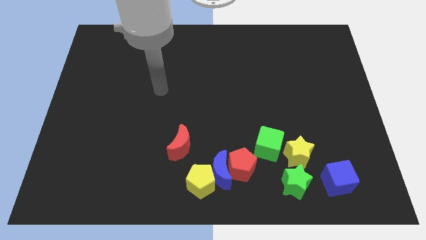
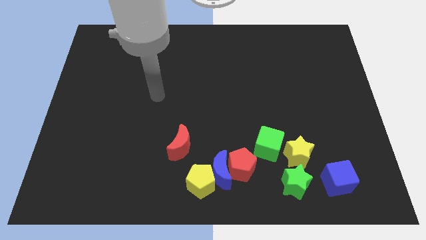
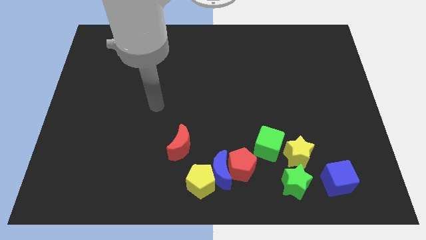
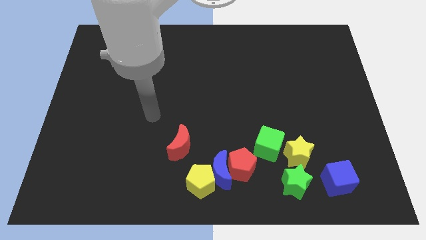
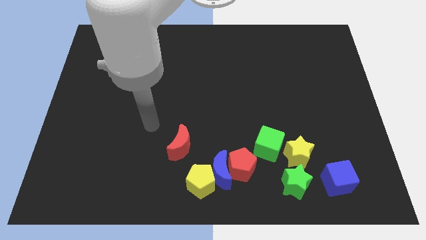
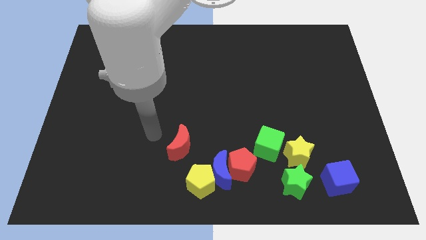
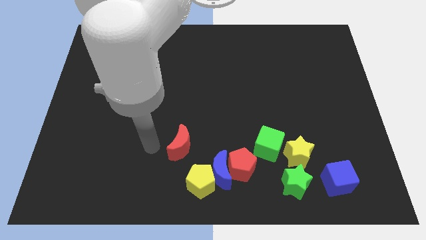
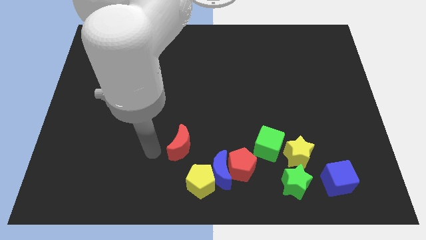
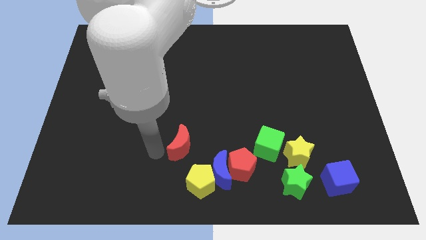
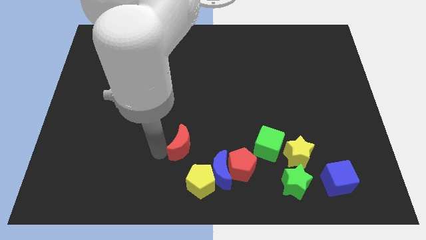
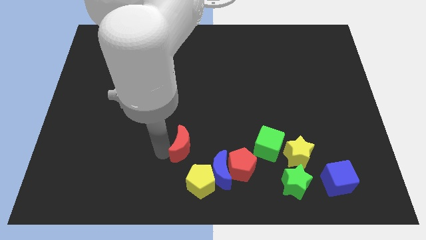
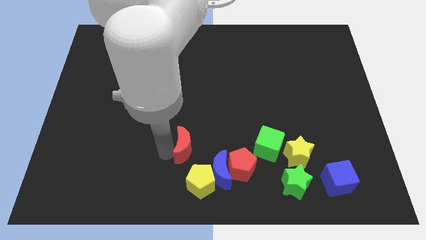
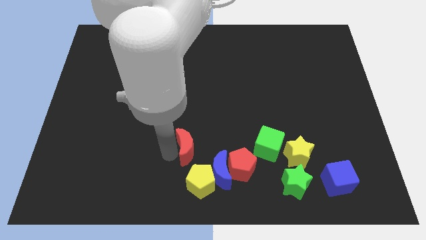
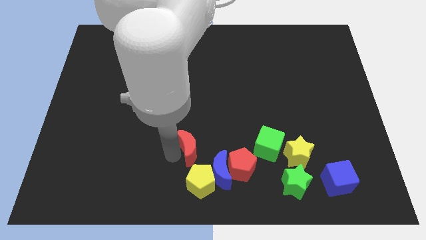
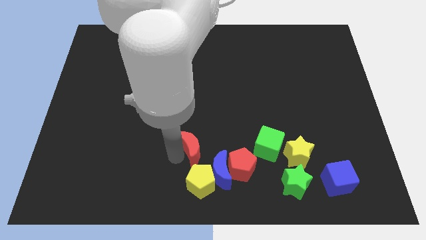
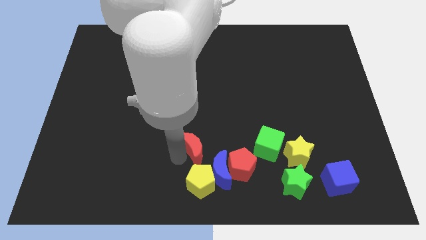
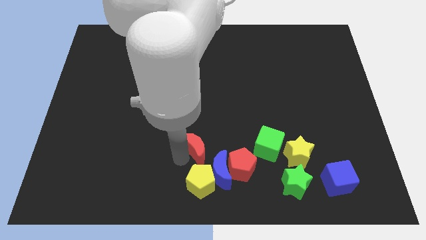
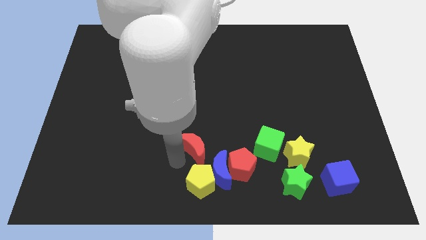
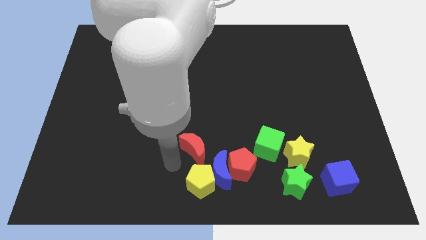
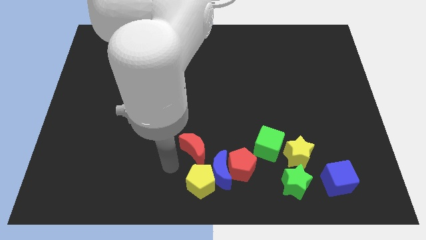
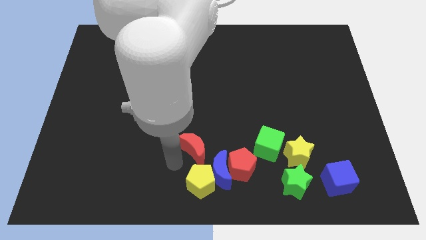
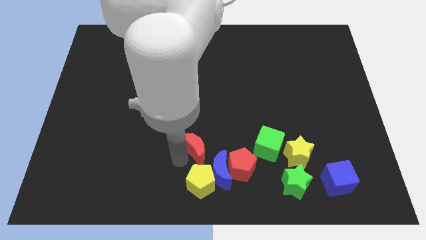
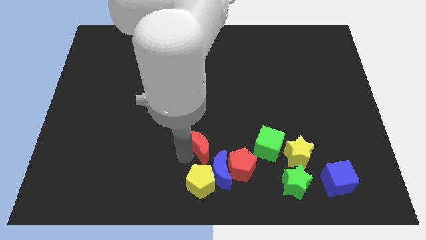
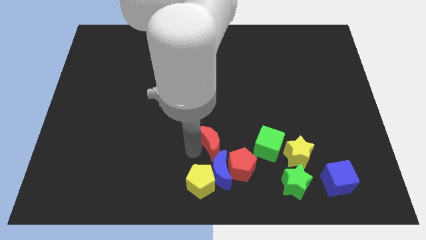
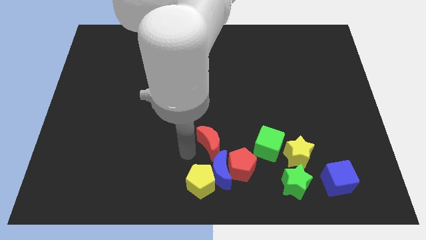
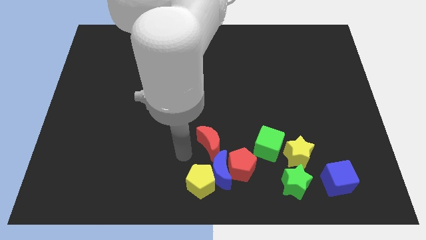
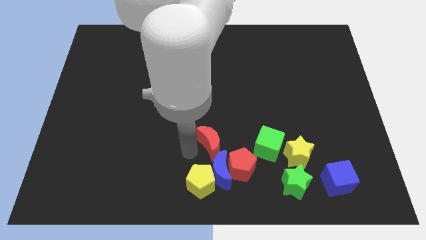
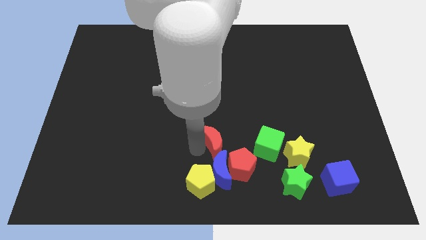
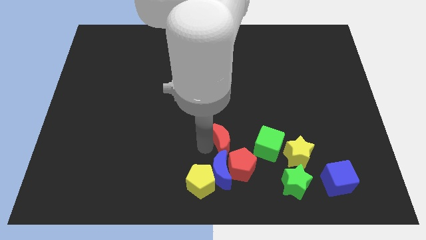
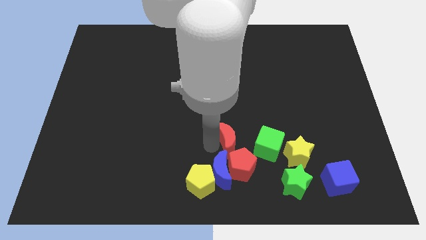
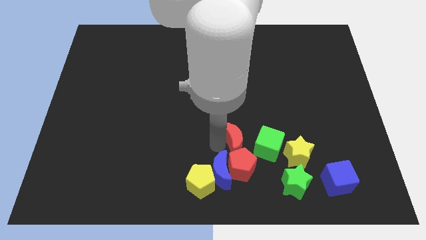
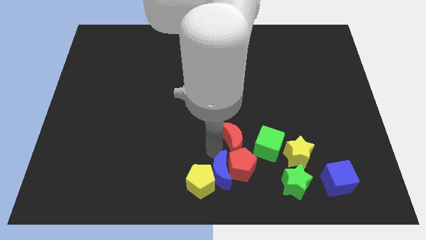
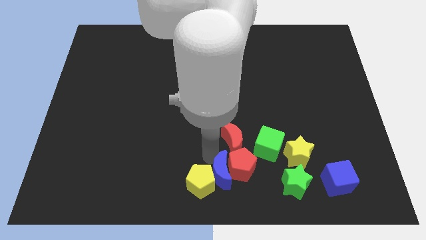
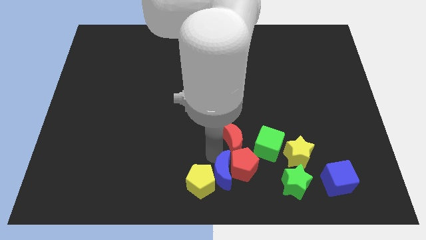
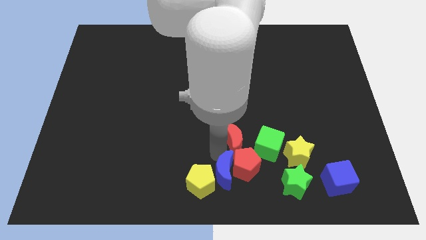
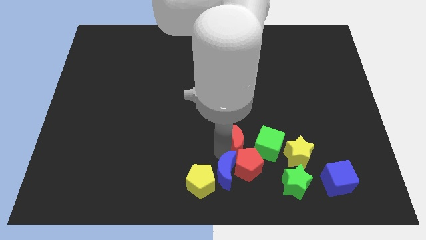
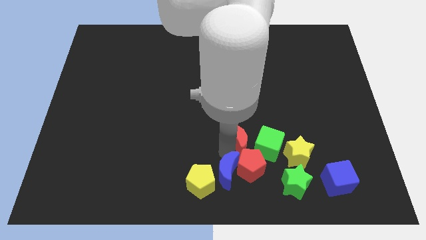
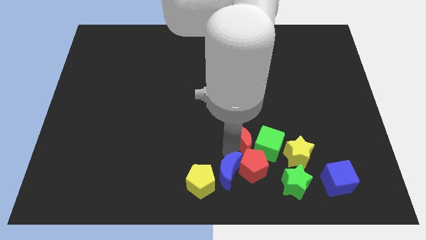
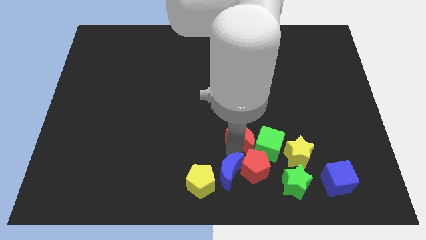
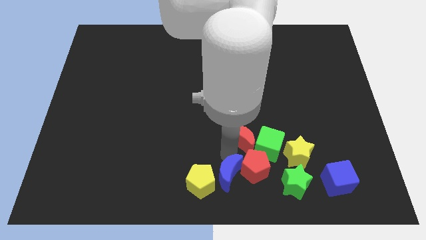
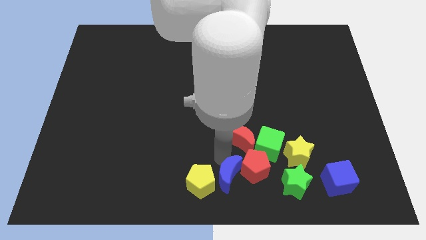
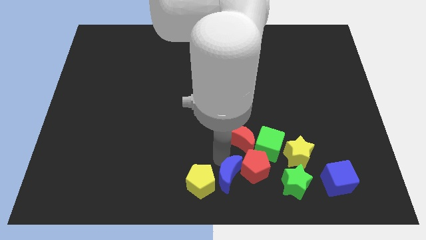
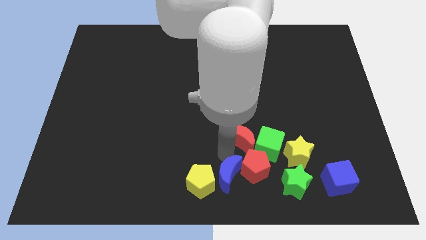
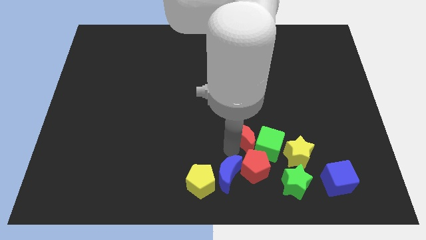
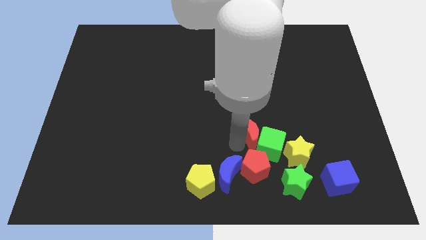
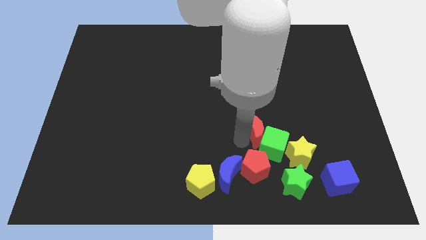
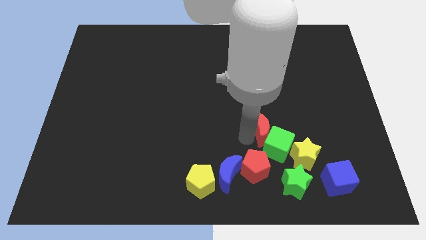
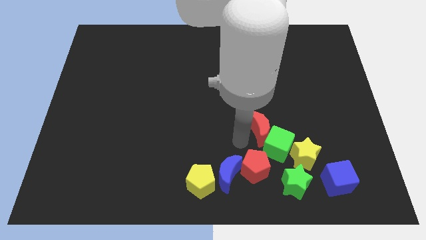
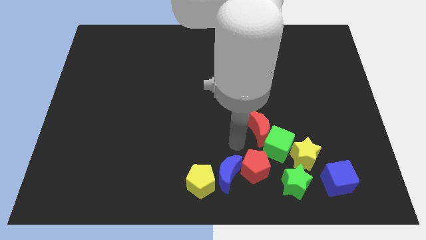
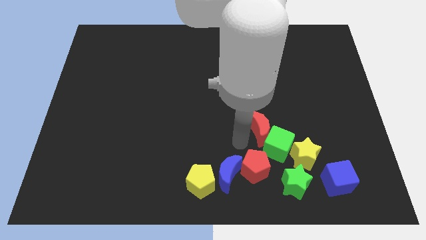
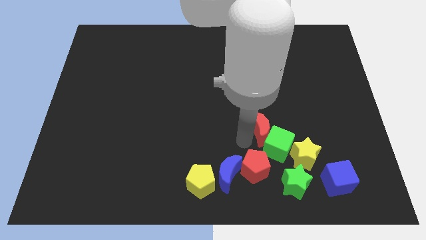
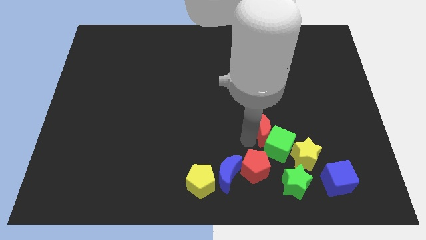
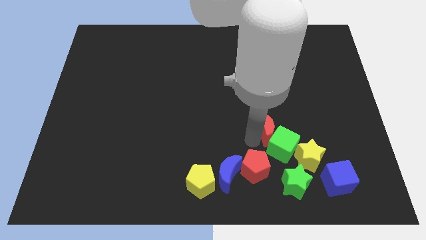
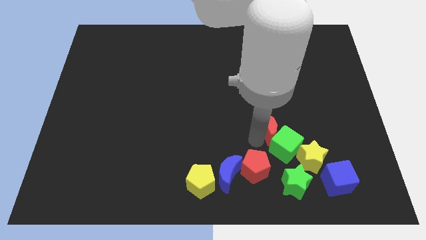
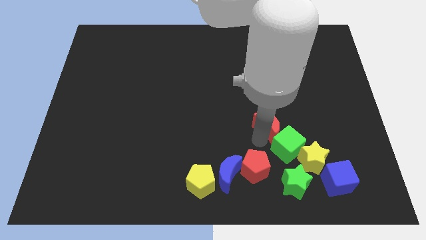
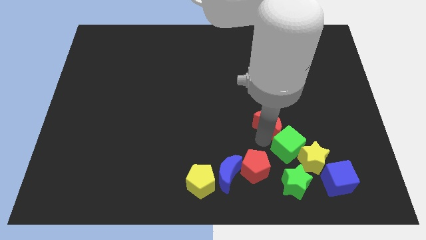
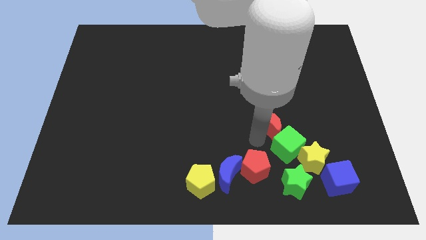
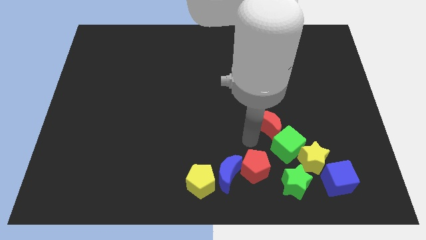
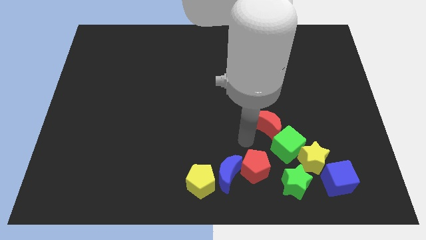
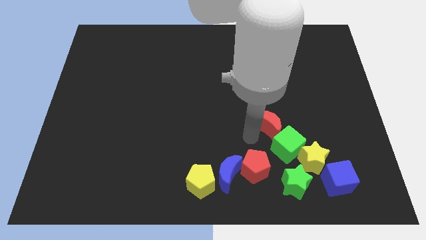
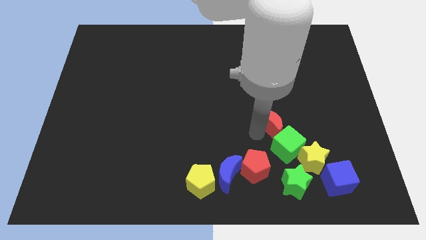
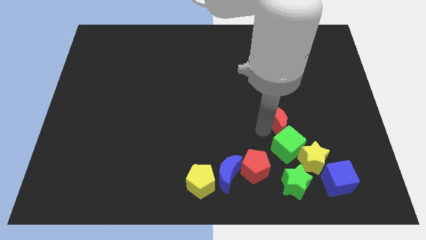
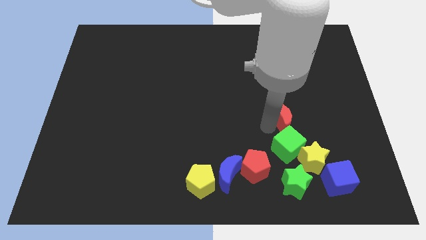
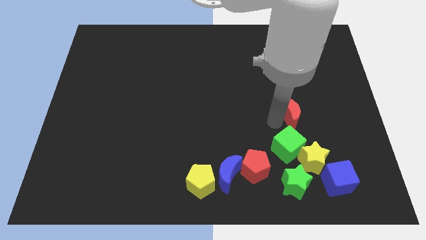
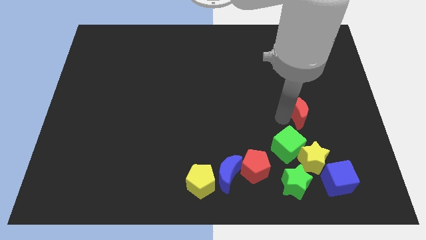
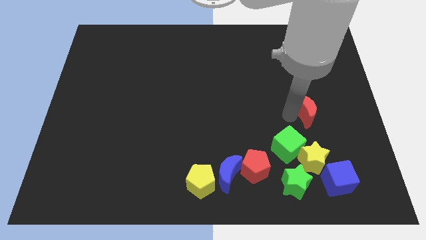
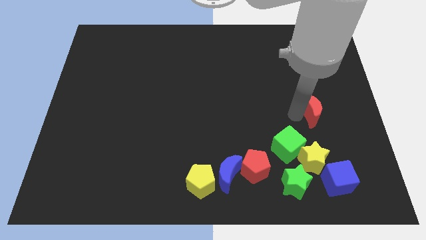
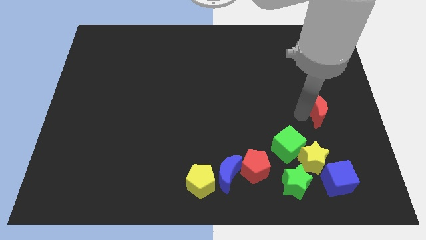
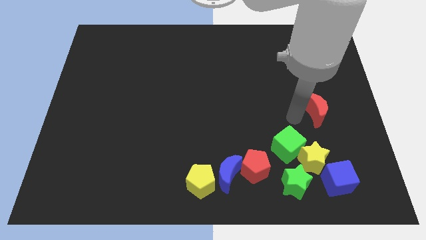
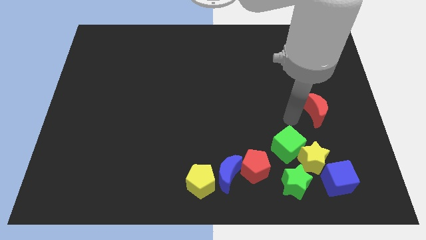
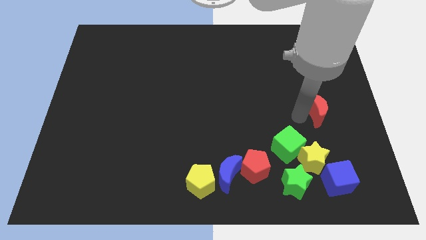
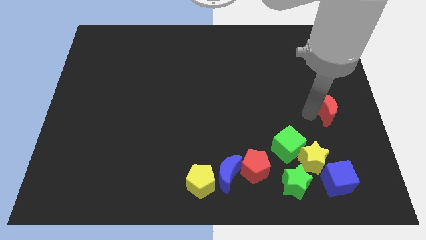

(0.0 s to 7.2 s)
push the red moon to the right side of the board
